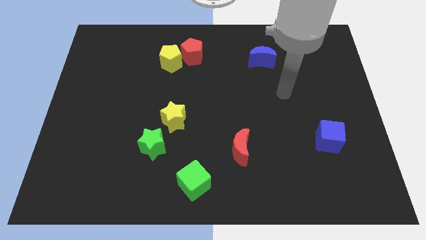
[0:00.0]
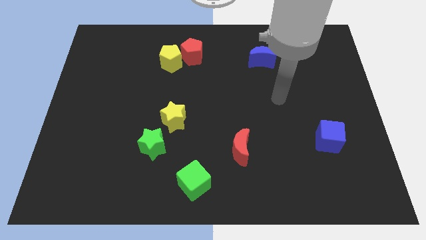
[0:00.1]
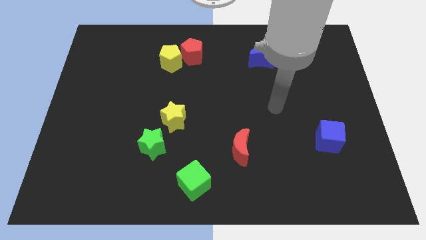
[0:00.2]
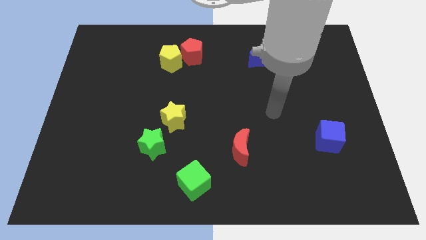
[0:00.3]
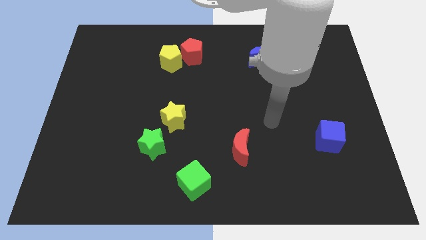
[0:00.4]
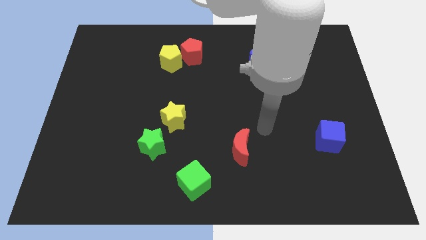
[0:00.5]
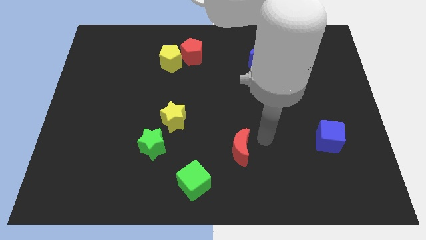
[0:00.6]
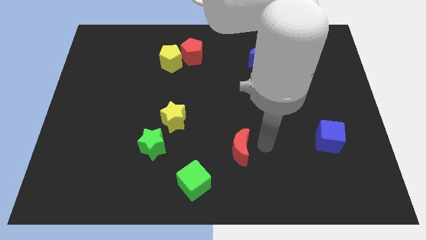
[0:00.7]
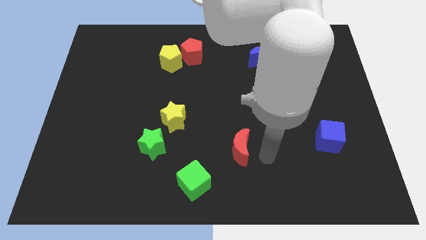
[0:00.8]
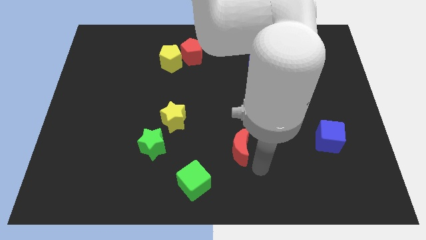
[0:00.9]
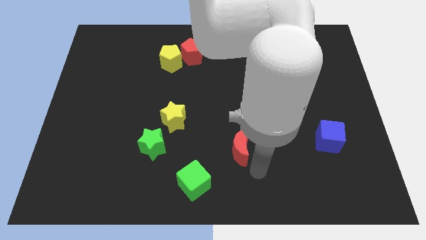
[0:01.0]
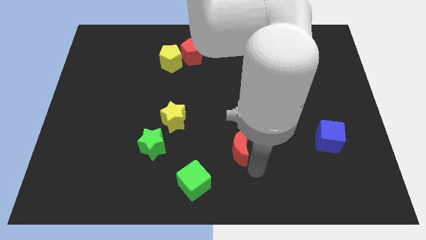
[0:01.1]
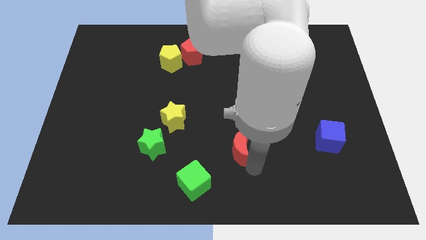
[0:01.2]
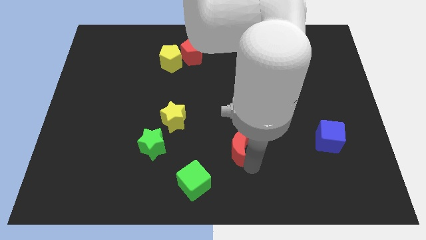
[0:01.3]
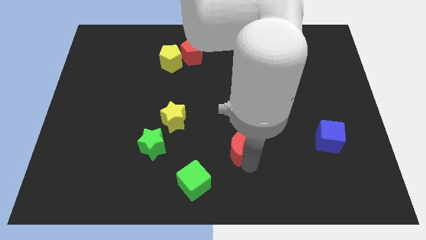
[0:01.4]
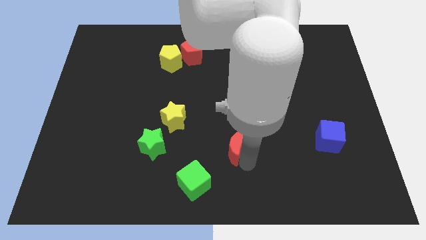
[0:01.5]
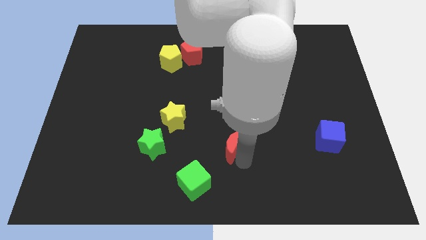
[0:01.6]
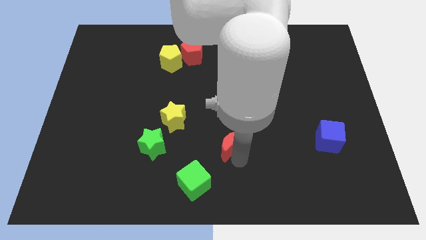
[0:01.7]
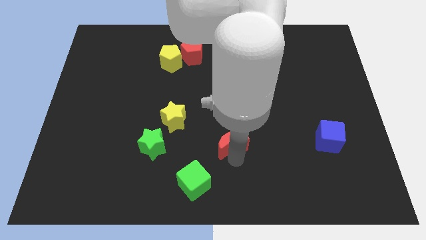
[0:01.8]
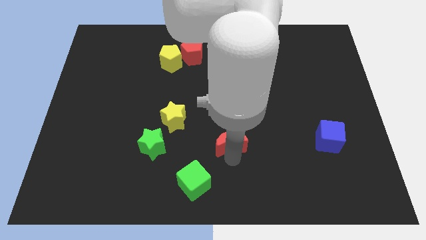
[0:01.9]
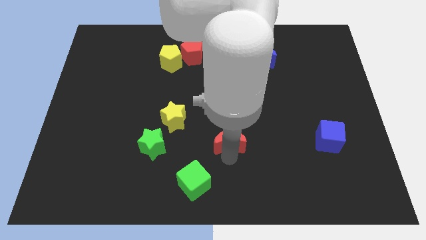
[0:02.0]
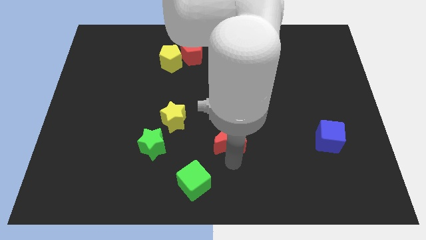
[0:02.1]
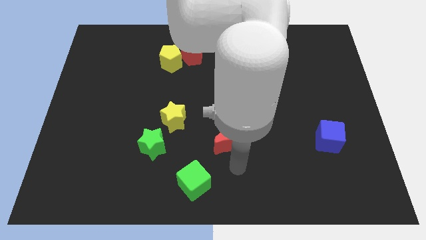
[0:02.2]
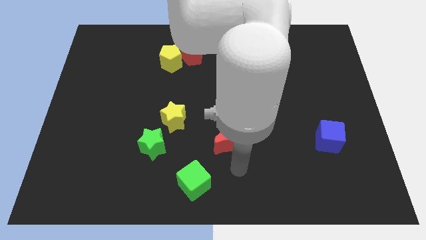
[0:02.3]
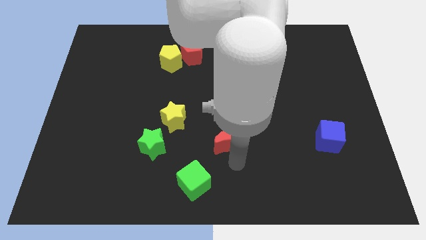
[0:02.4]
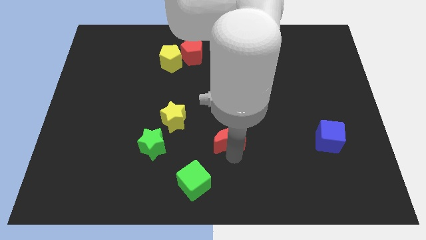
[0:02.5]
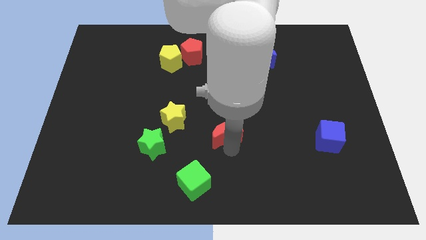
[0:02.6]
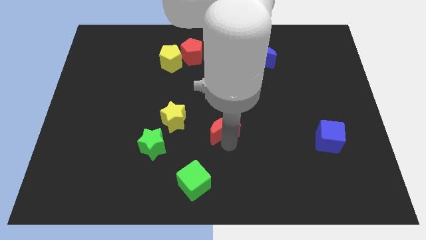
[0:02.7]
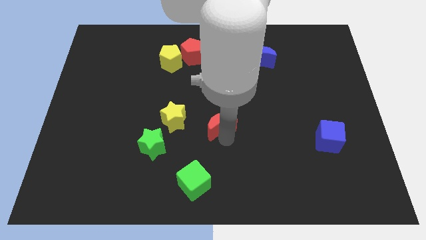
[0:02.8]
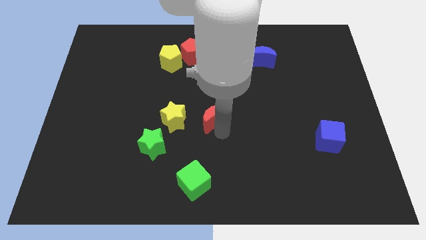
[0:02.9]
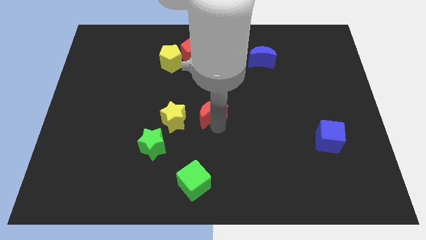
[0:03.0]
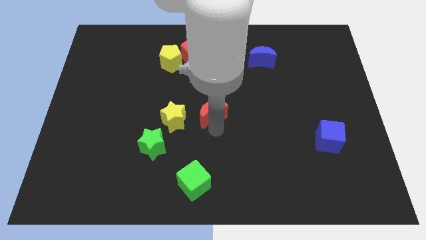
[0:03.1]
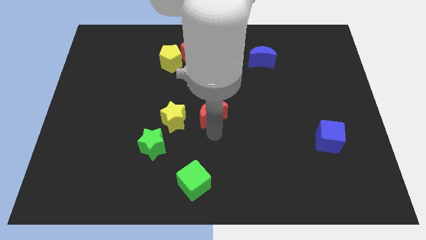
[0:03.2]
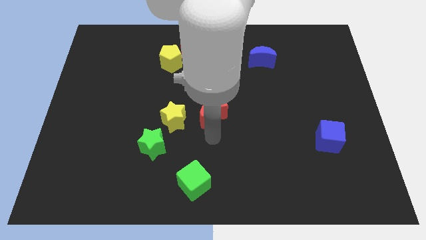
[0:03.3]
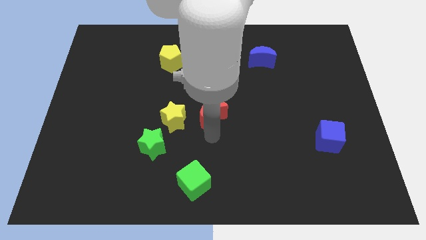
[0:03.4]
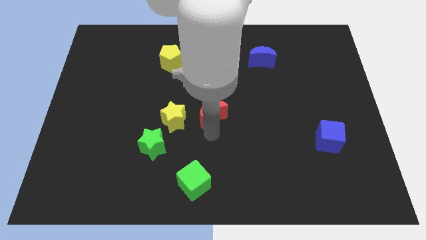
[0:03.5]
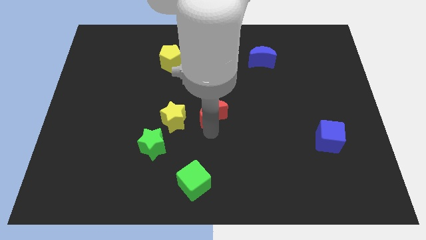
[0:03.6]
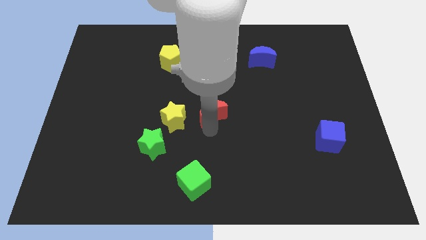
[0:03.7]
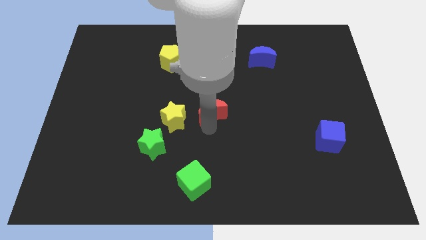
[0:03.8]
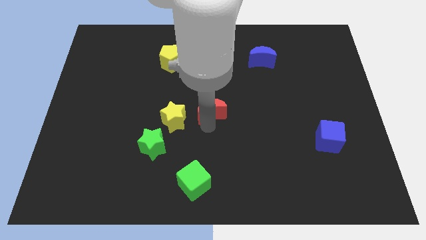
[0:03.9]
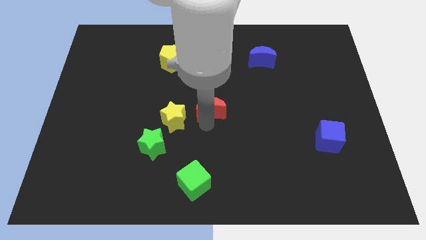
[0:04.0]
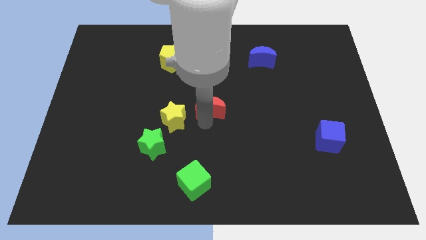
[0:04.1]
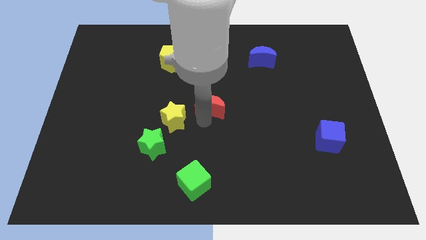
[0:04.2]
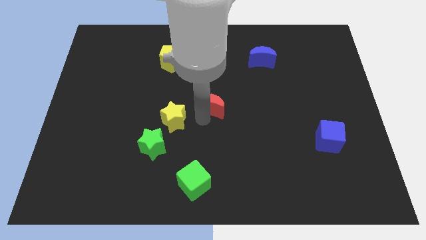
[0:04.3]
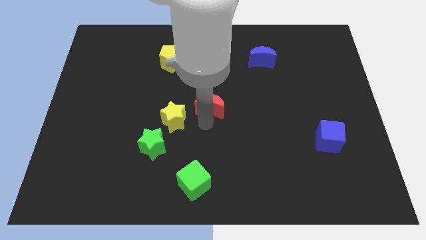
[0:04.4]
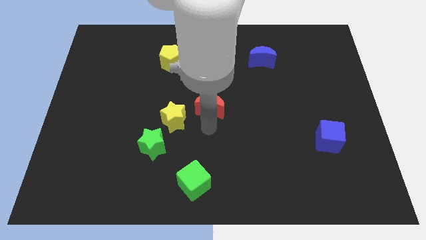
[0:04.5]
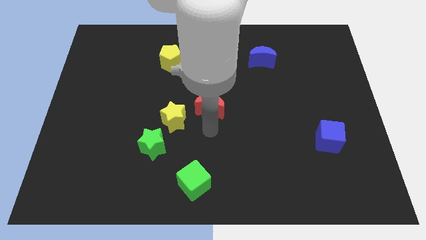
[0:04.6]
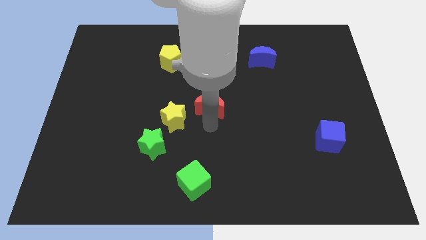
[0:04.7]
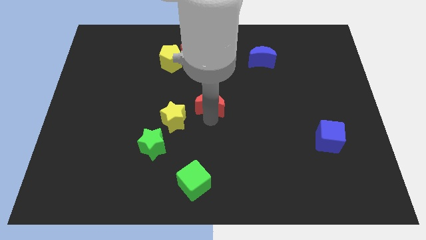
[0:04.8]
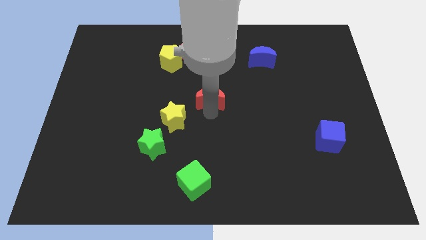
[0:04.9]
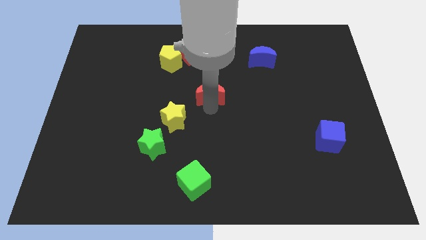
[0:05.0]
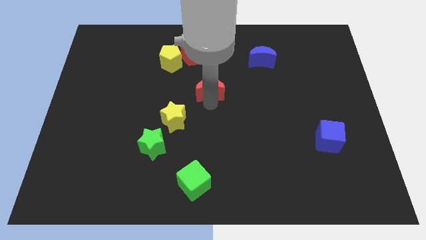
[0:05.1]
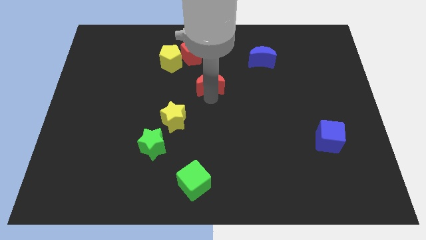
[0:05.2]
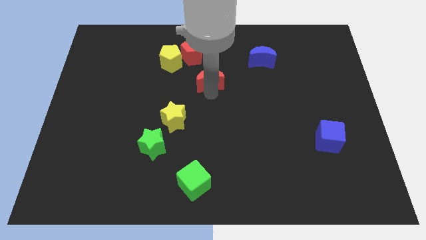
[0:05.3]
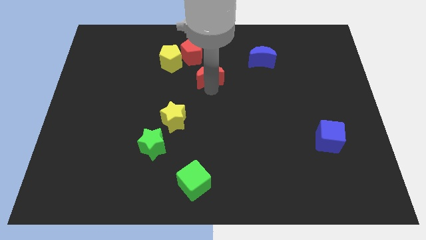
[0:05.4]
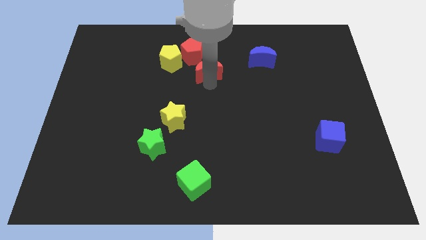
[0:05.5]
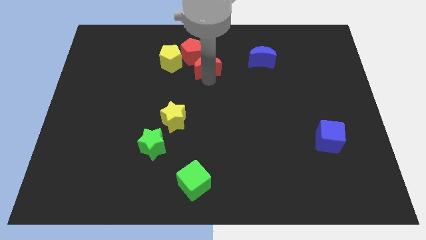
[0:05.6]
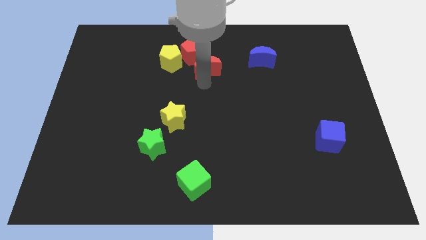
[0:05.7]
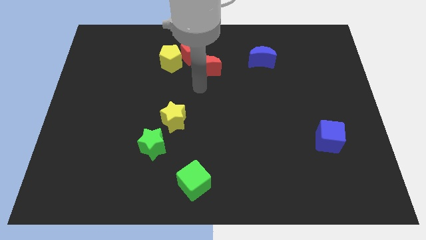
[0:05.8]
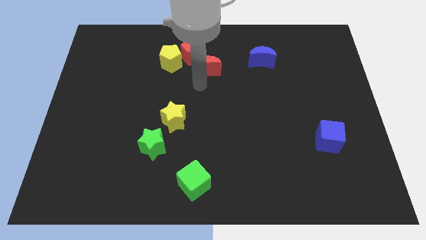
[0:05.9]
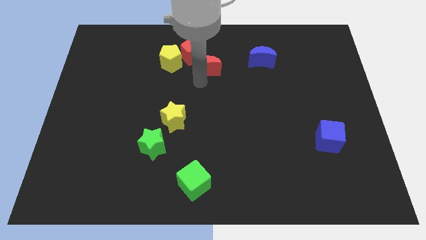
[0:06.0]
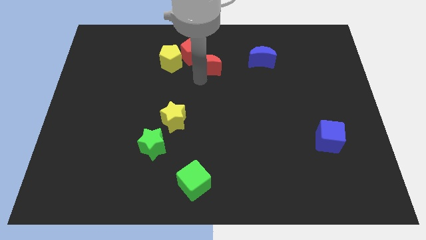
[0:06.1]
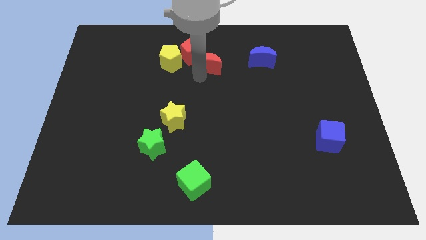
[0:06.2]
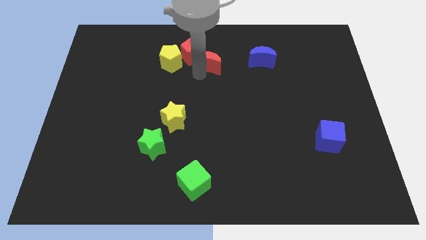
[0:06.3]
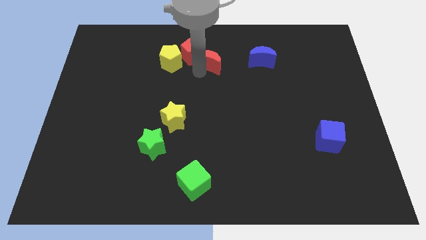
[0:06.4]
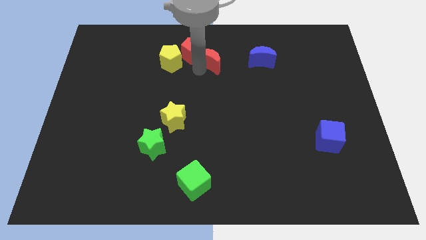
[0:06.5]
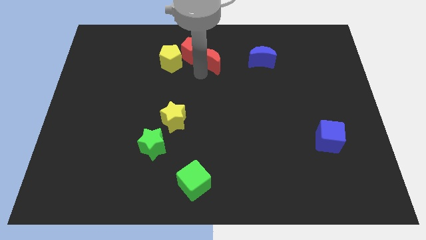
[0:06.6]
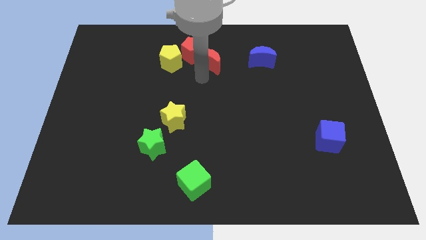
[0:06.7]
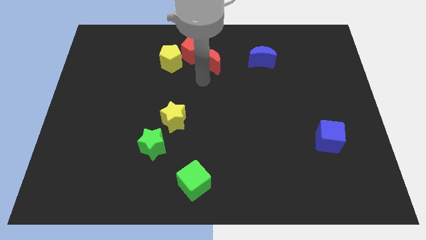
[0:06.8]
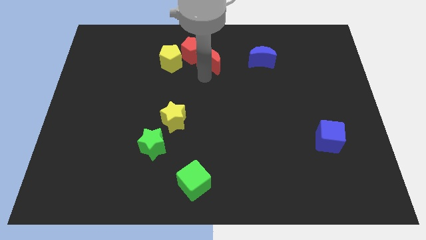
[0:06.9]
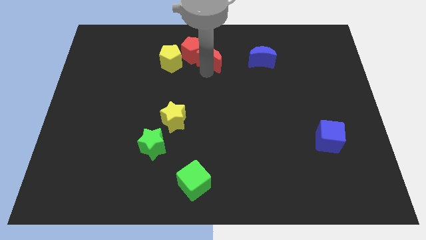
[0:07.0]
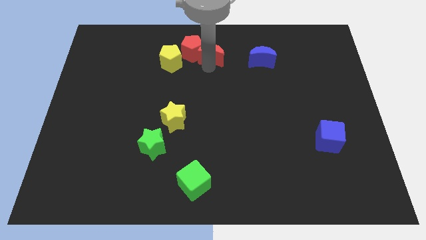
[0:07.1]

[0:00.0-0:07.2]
push the red moon to the towards your base
